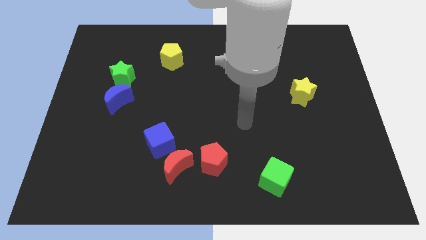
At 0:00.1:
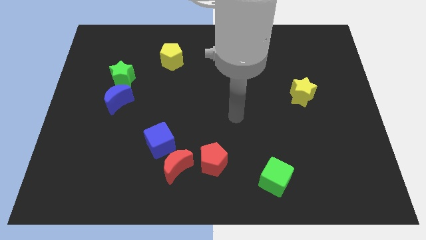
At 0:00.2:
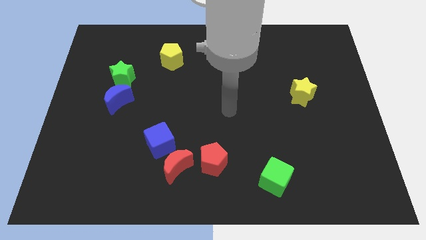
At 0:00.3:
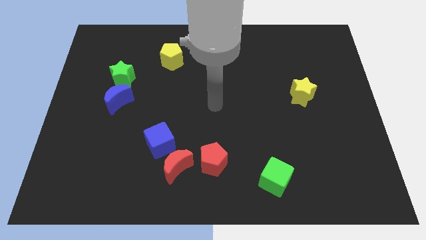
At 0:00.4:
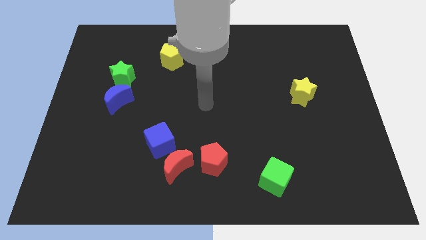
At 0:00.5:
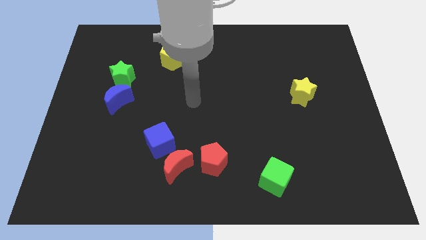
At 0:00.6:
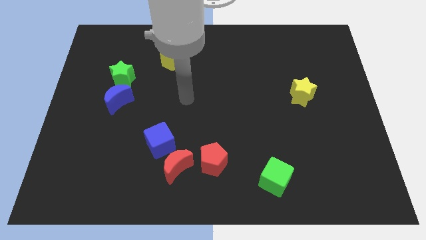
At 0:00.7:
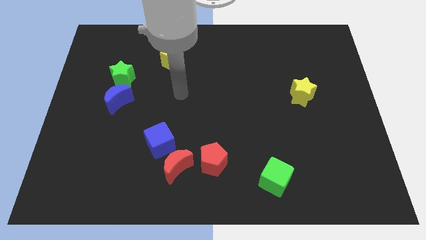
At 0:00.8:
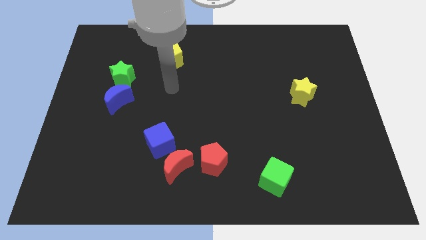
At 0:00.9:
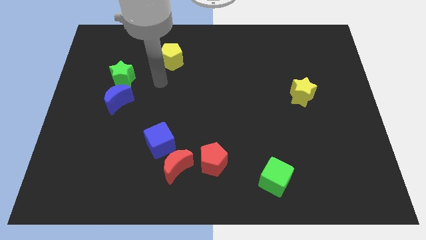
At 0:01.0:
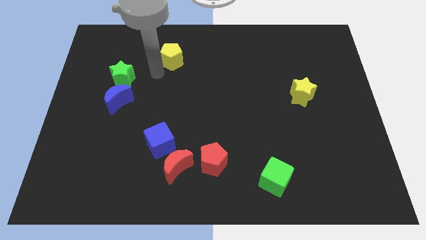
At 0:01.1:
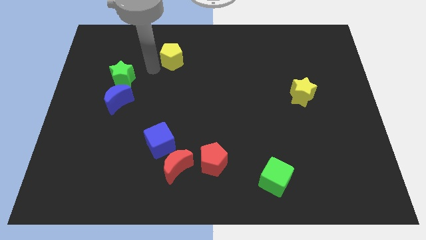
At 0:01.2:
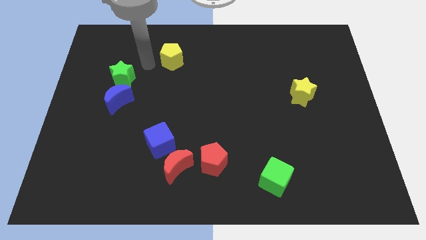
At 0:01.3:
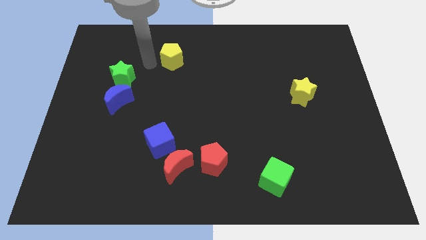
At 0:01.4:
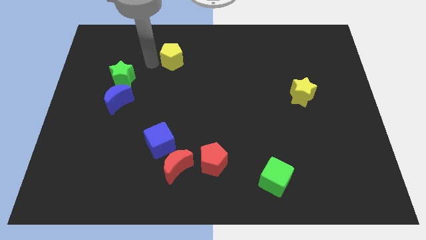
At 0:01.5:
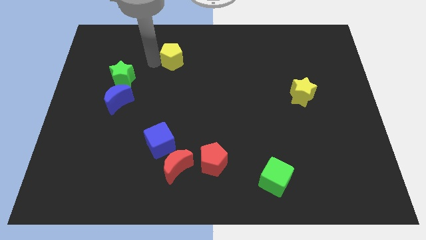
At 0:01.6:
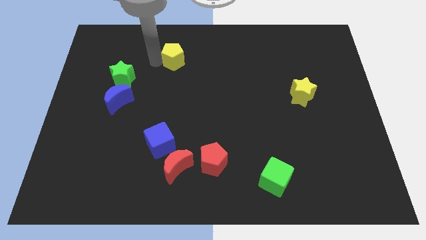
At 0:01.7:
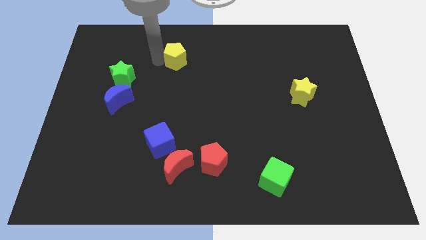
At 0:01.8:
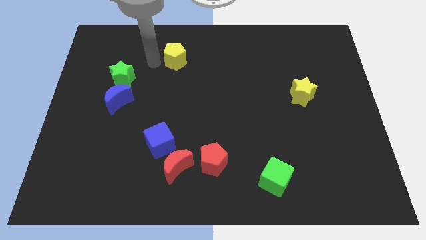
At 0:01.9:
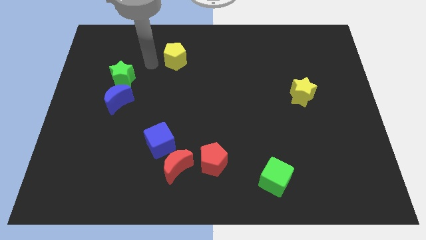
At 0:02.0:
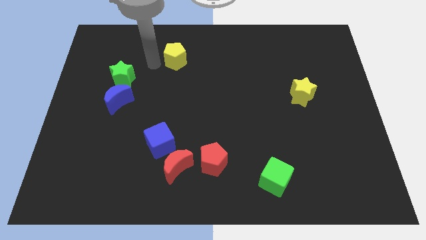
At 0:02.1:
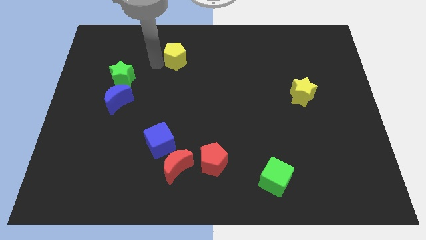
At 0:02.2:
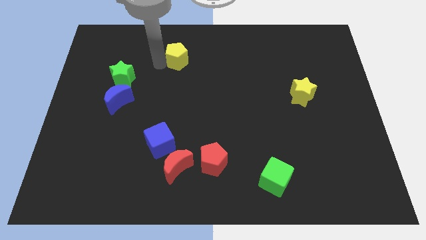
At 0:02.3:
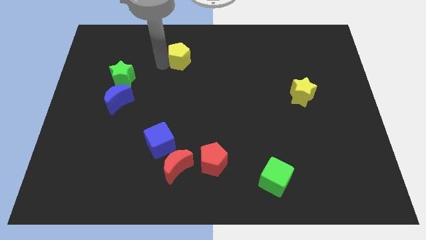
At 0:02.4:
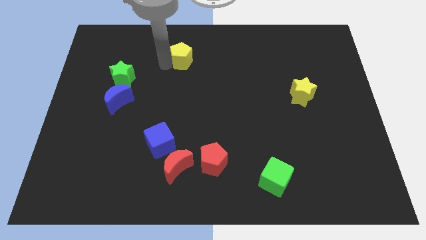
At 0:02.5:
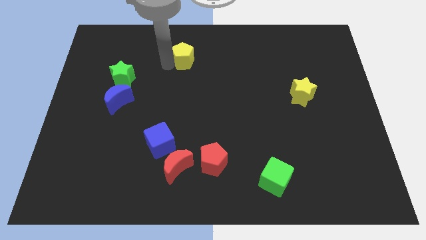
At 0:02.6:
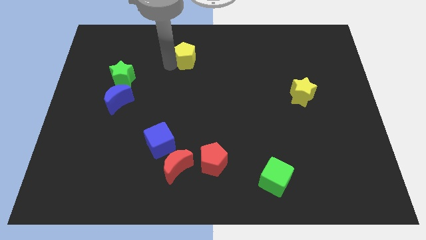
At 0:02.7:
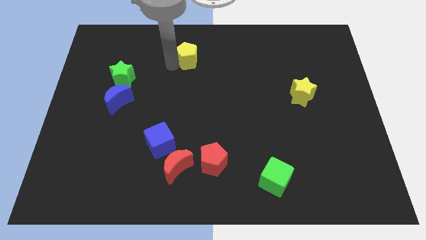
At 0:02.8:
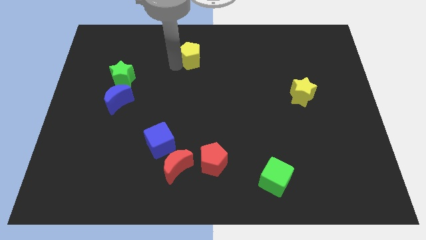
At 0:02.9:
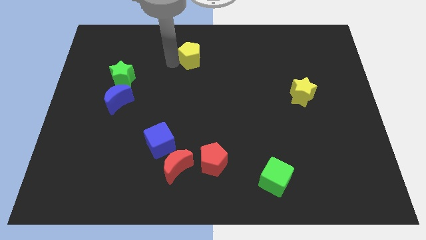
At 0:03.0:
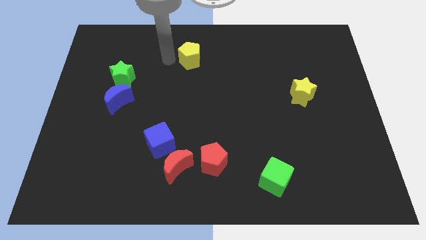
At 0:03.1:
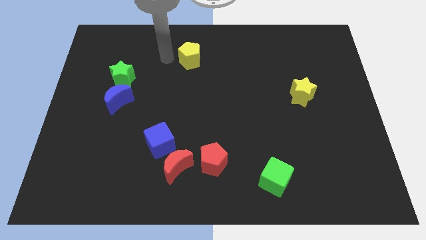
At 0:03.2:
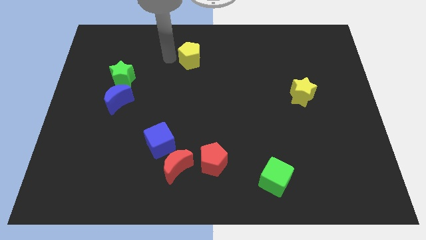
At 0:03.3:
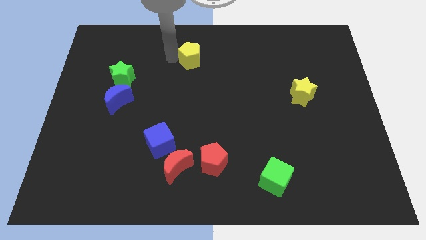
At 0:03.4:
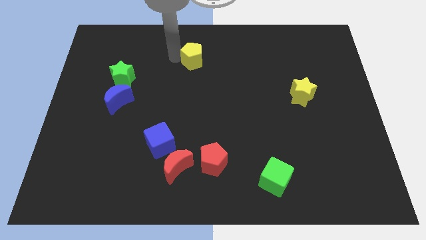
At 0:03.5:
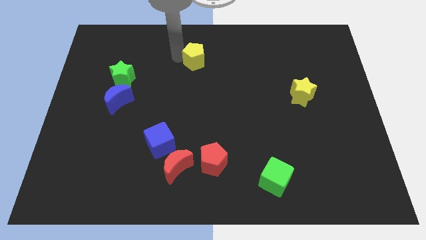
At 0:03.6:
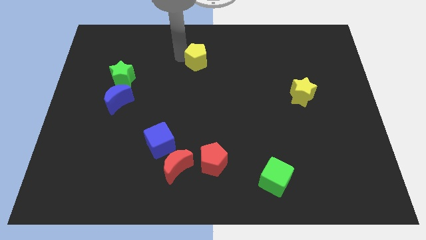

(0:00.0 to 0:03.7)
slightly push the yellow pentagon right

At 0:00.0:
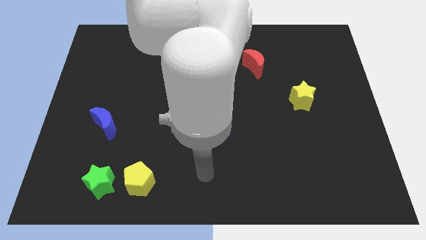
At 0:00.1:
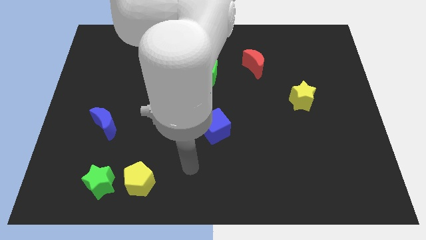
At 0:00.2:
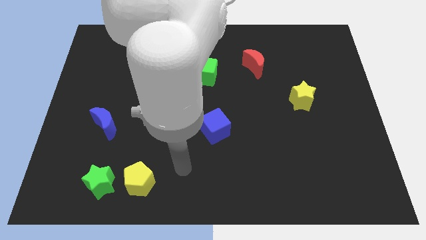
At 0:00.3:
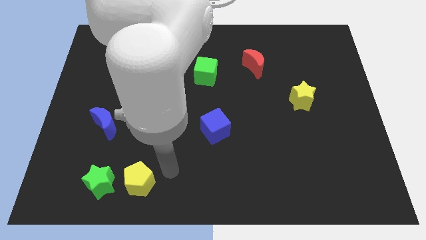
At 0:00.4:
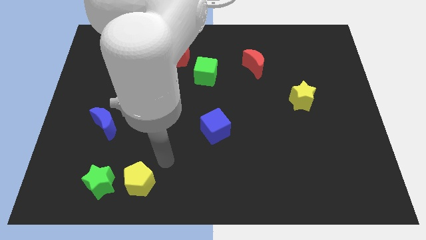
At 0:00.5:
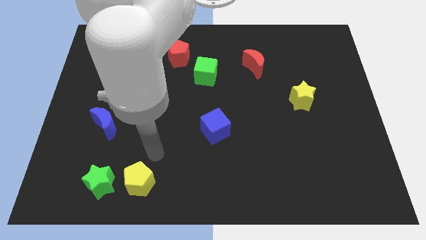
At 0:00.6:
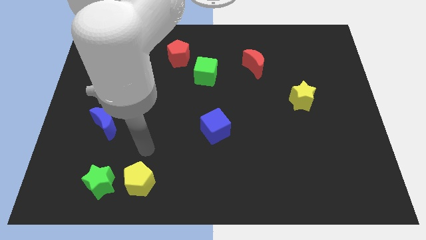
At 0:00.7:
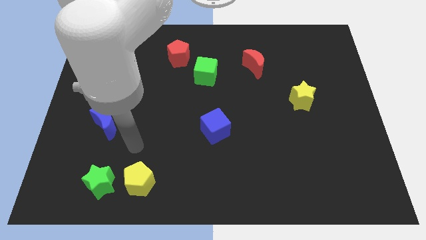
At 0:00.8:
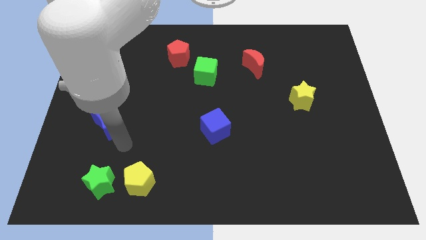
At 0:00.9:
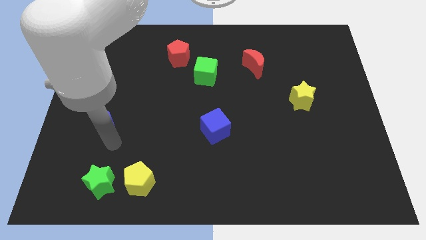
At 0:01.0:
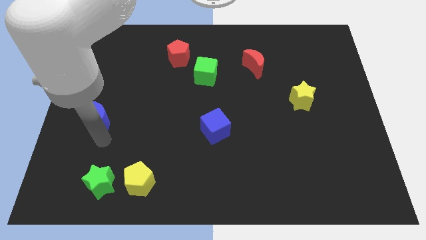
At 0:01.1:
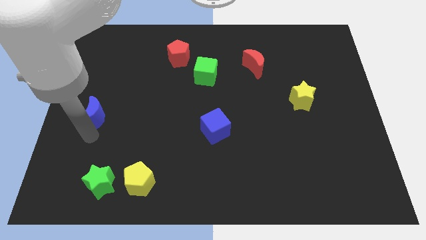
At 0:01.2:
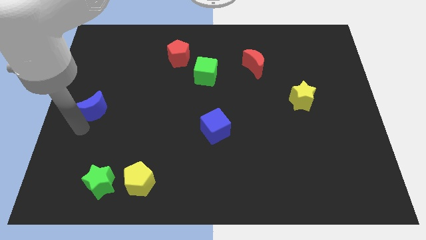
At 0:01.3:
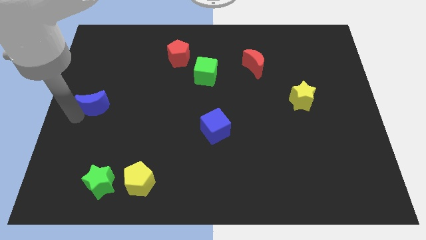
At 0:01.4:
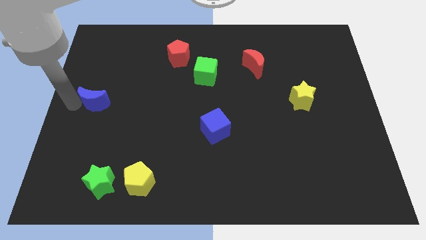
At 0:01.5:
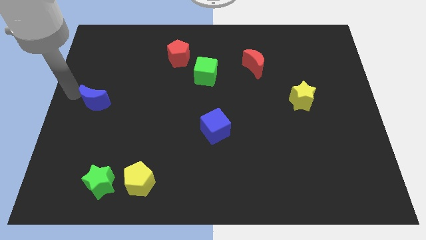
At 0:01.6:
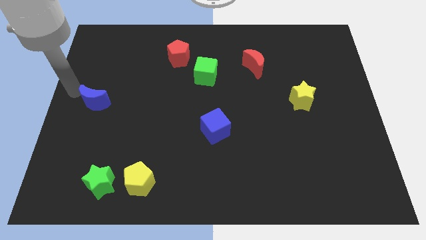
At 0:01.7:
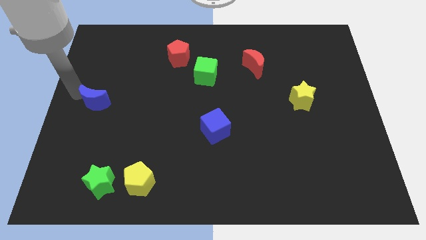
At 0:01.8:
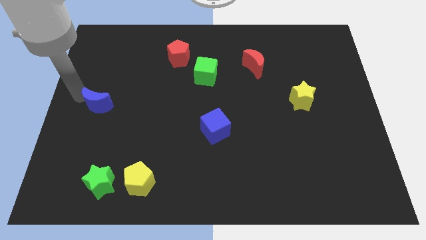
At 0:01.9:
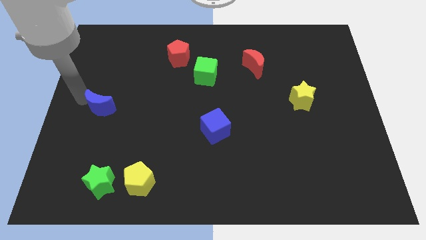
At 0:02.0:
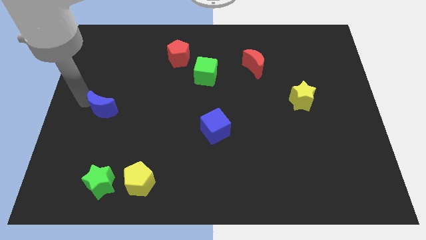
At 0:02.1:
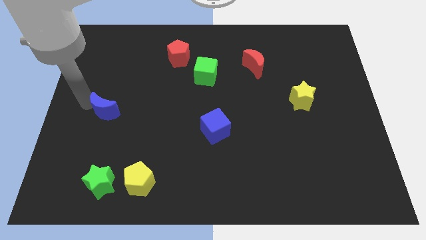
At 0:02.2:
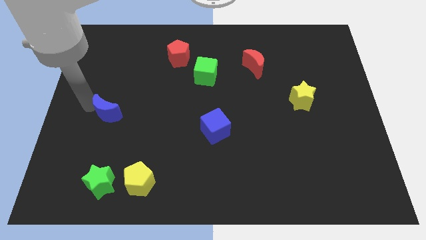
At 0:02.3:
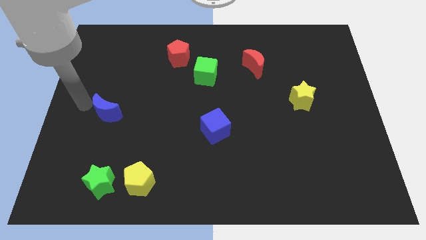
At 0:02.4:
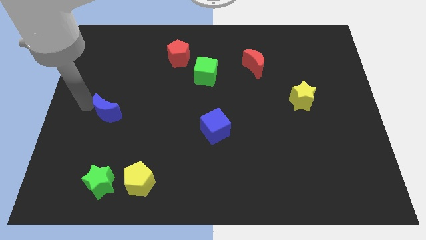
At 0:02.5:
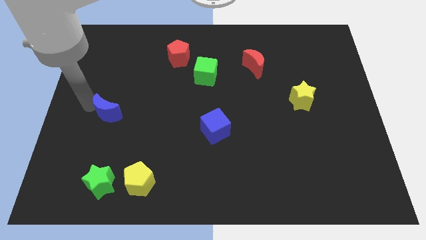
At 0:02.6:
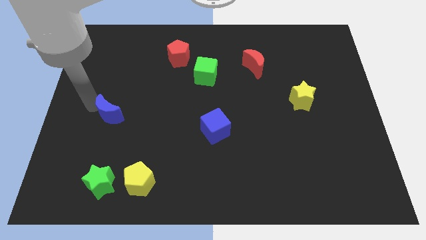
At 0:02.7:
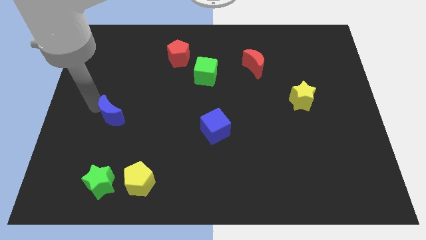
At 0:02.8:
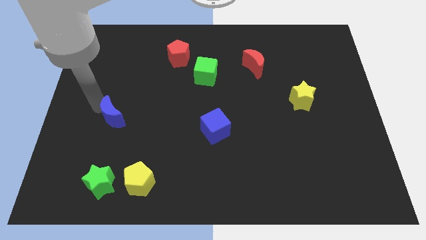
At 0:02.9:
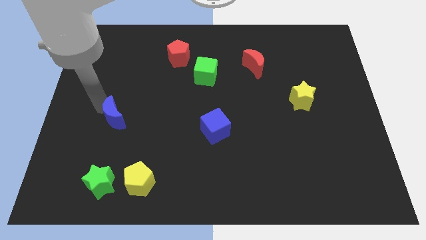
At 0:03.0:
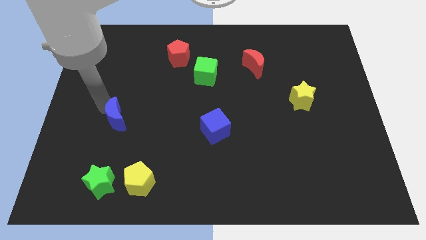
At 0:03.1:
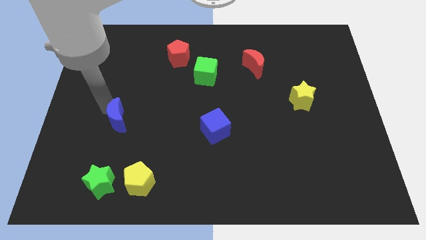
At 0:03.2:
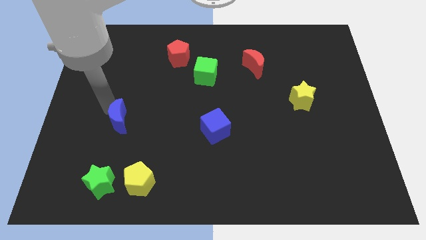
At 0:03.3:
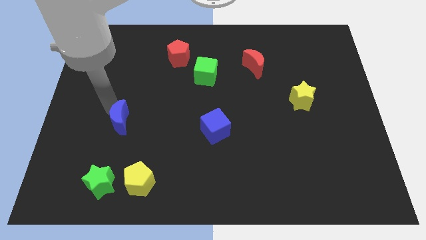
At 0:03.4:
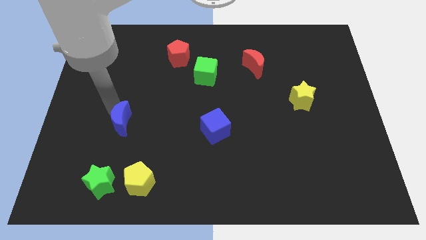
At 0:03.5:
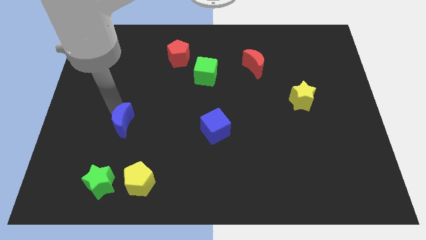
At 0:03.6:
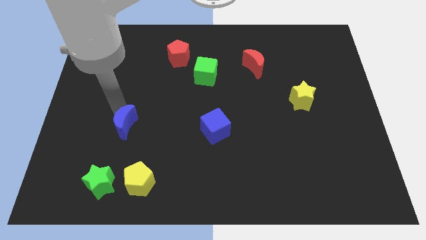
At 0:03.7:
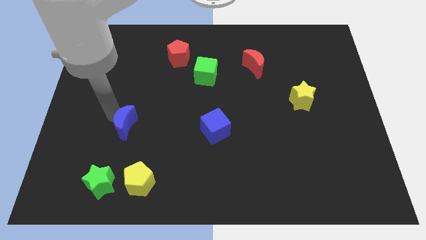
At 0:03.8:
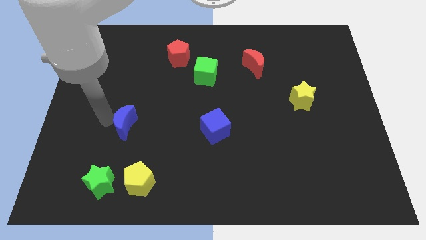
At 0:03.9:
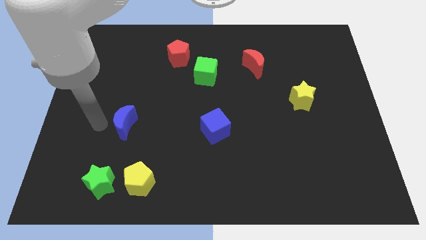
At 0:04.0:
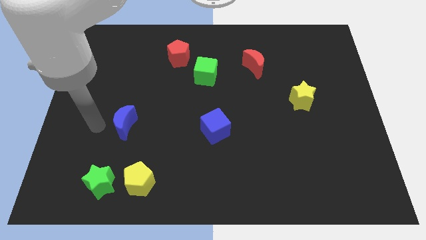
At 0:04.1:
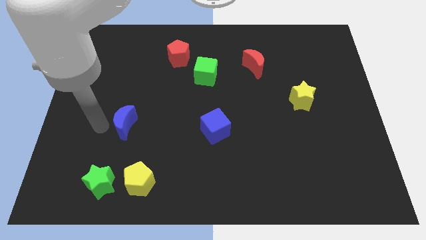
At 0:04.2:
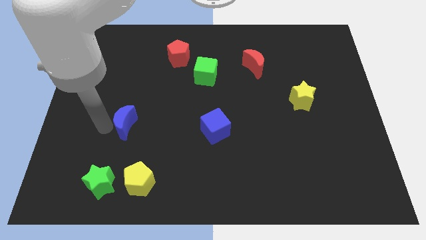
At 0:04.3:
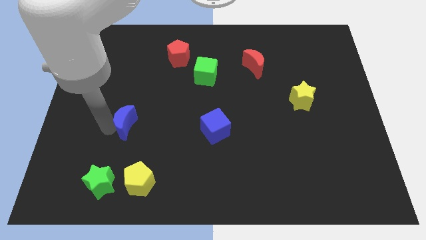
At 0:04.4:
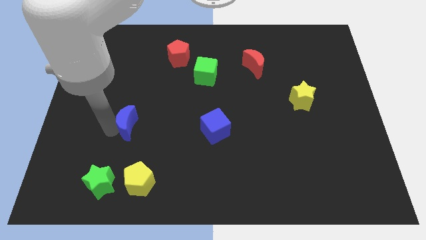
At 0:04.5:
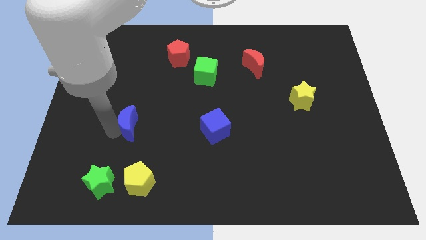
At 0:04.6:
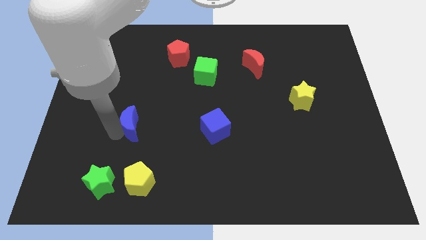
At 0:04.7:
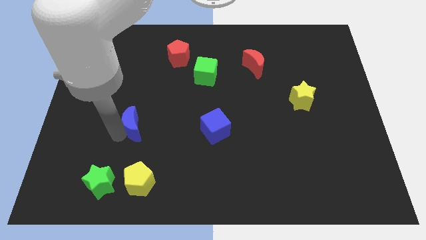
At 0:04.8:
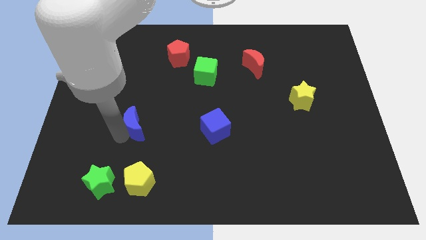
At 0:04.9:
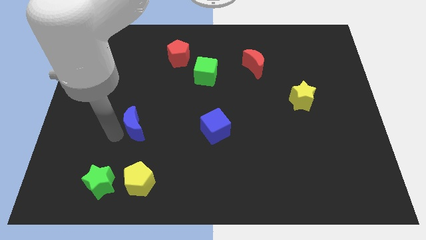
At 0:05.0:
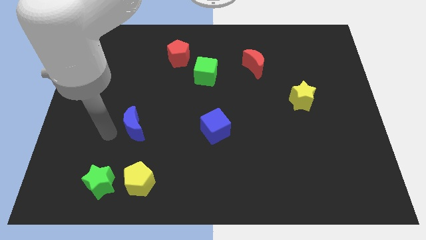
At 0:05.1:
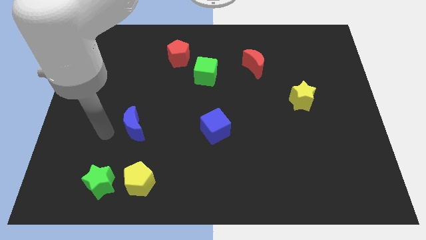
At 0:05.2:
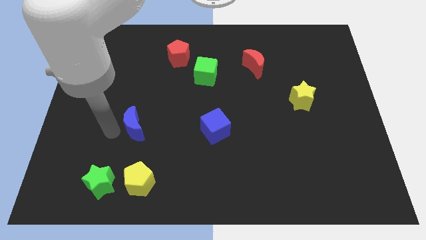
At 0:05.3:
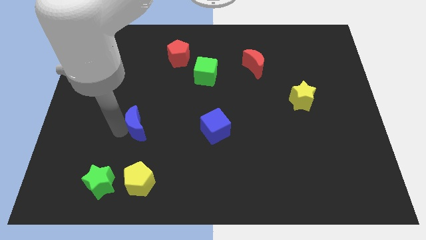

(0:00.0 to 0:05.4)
slightly slide the blue moon right
